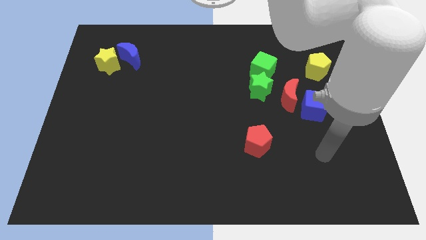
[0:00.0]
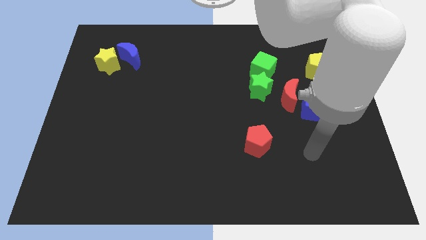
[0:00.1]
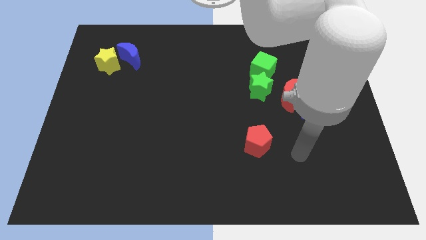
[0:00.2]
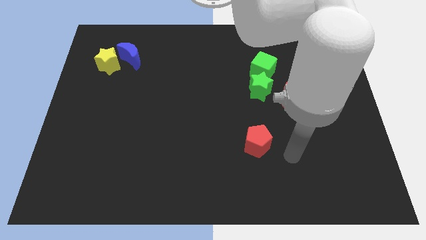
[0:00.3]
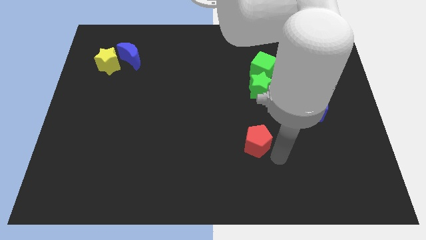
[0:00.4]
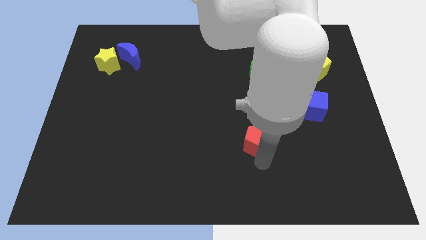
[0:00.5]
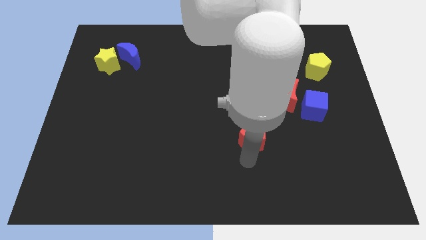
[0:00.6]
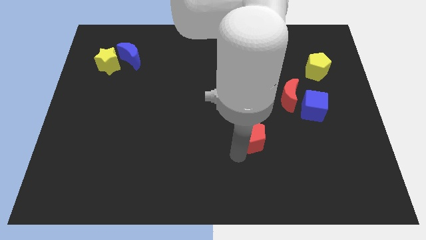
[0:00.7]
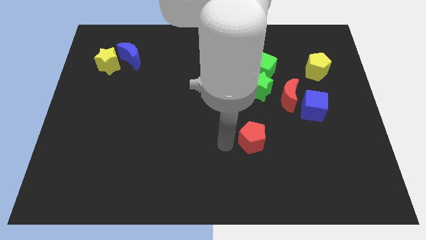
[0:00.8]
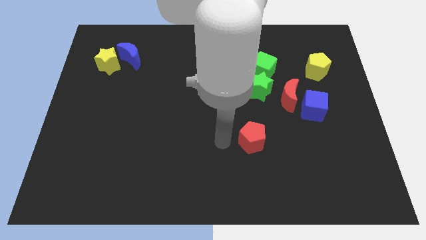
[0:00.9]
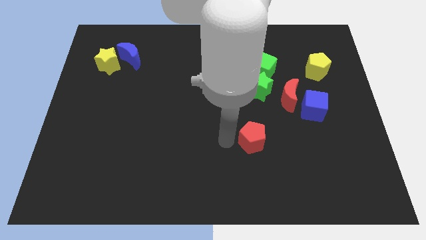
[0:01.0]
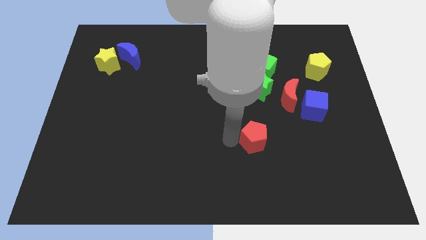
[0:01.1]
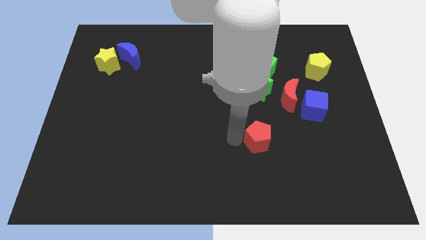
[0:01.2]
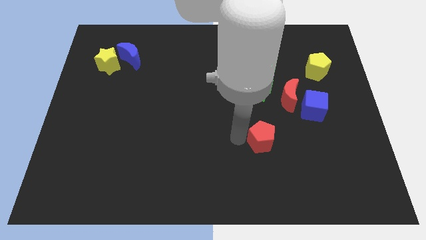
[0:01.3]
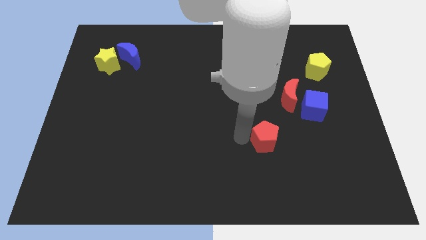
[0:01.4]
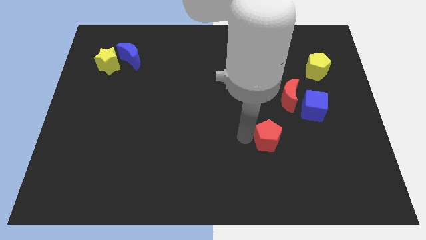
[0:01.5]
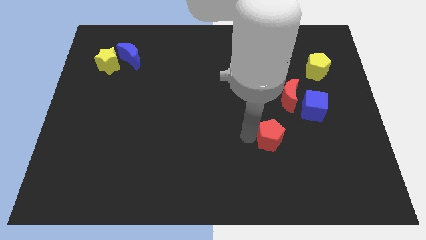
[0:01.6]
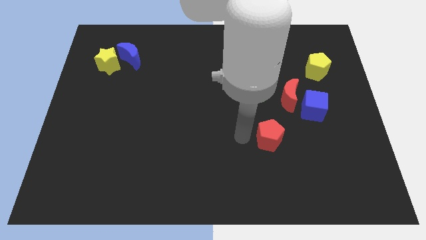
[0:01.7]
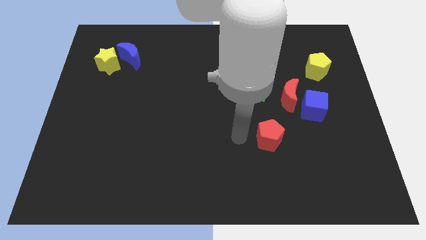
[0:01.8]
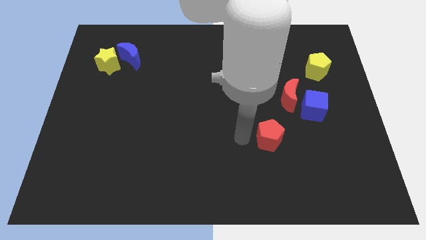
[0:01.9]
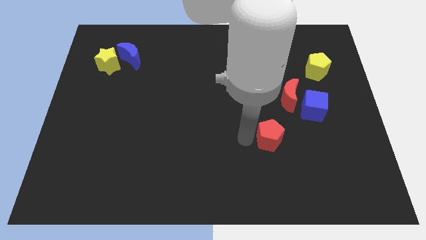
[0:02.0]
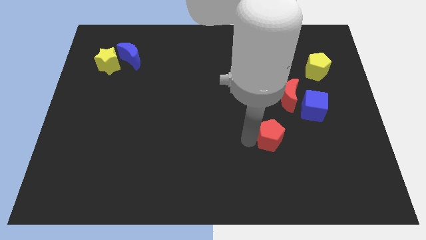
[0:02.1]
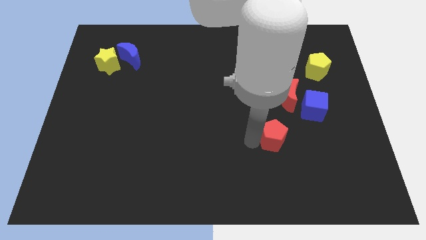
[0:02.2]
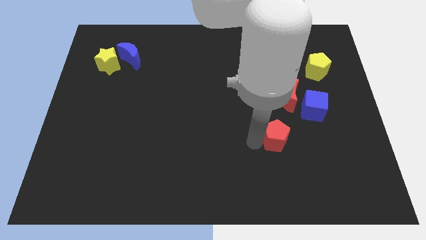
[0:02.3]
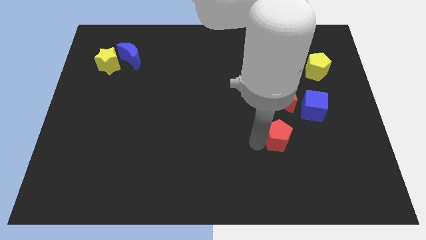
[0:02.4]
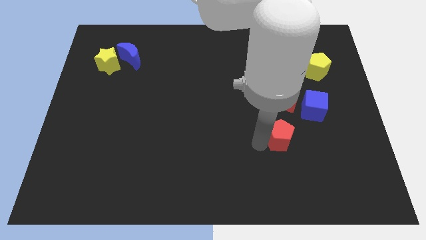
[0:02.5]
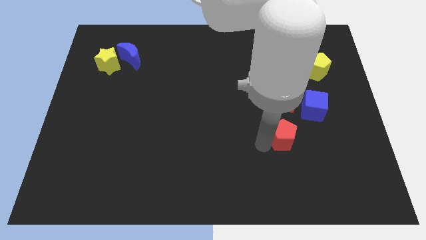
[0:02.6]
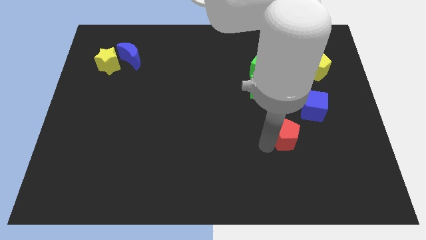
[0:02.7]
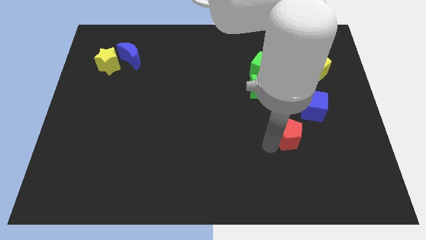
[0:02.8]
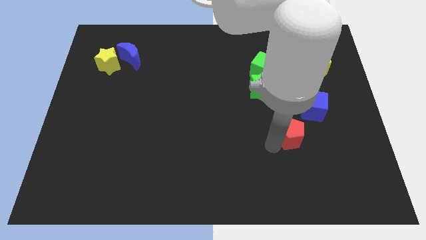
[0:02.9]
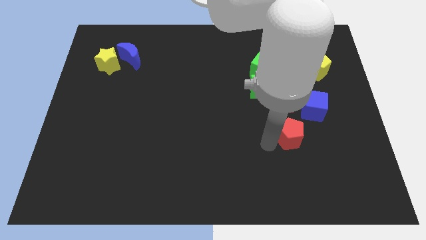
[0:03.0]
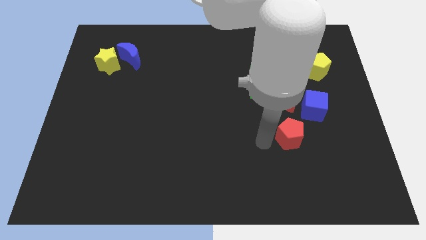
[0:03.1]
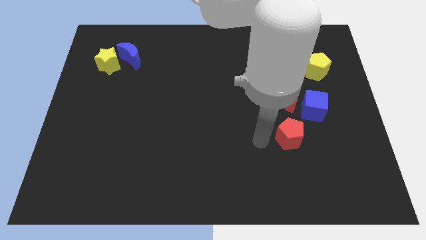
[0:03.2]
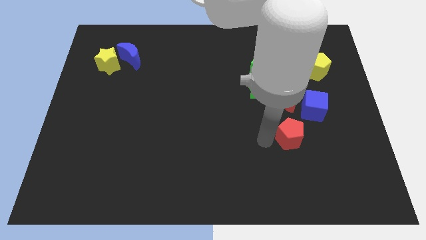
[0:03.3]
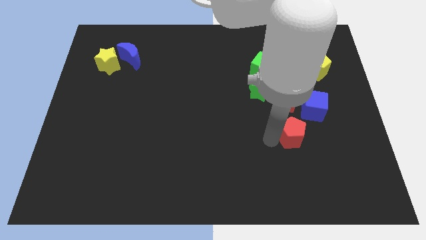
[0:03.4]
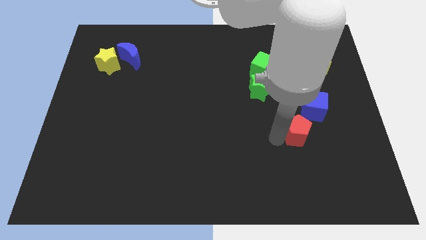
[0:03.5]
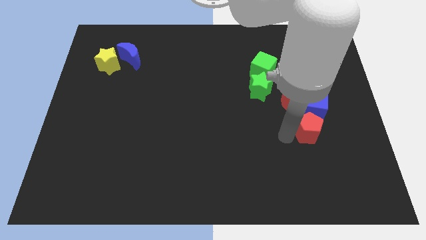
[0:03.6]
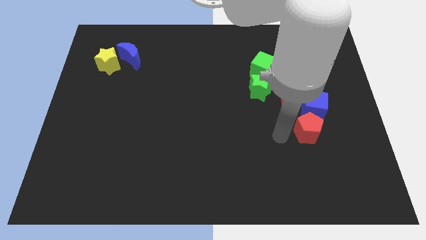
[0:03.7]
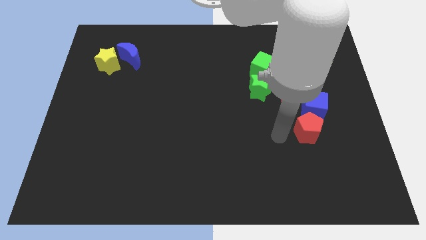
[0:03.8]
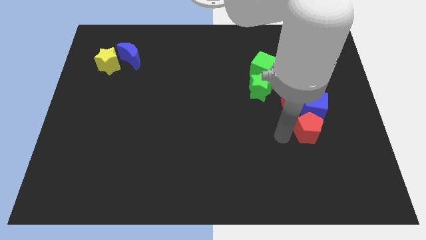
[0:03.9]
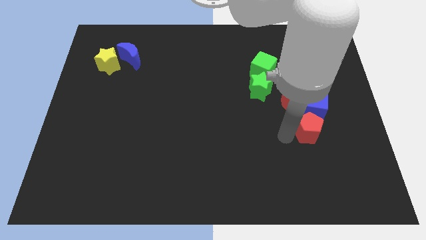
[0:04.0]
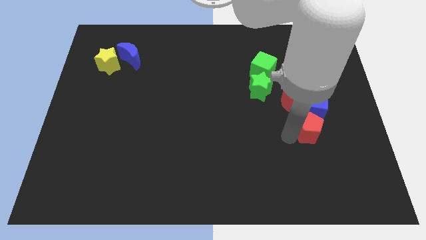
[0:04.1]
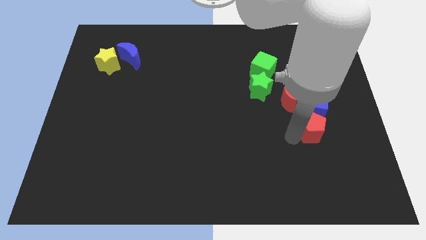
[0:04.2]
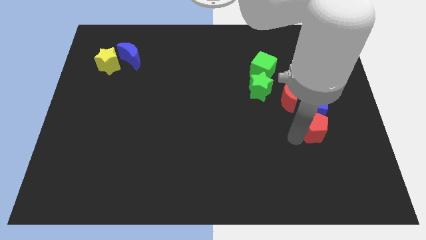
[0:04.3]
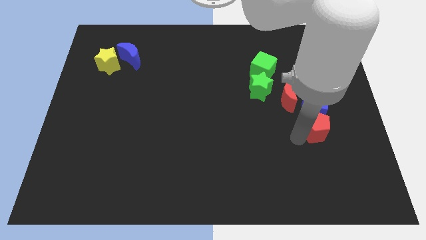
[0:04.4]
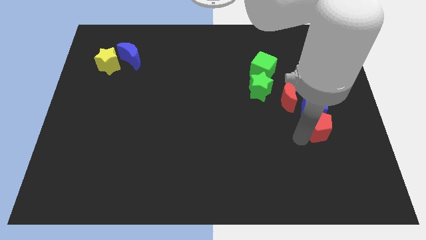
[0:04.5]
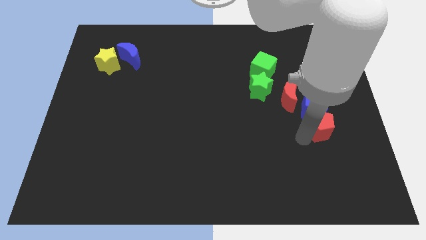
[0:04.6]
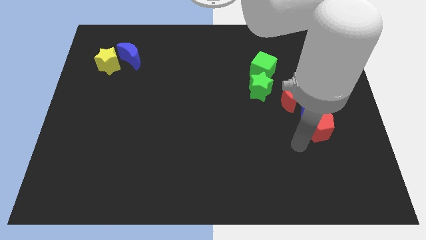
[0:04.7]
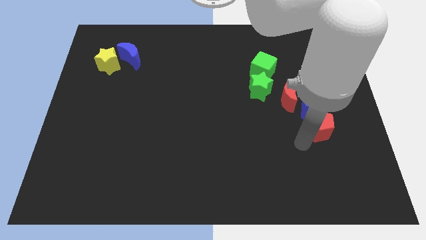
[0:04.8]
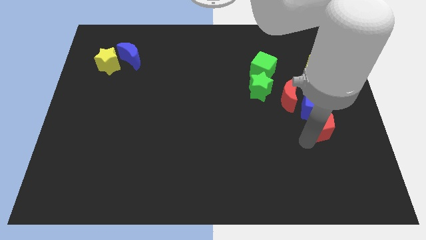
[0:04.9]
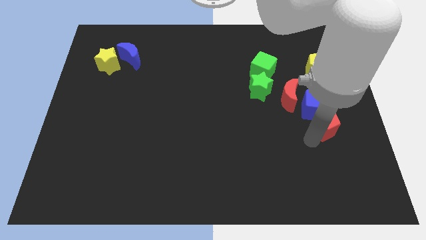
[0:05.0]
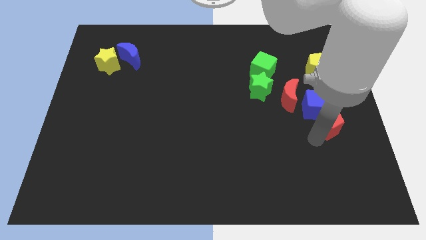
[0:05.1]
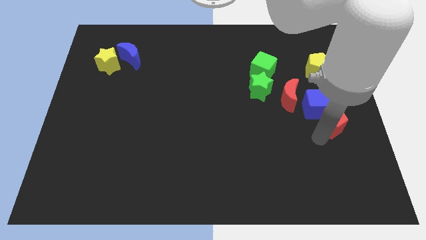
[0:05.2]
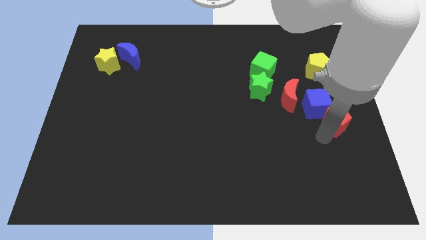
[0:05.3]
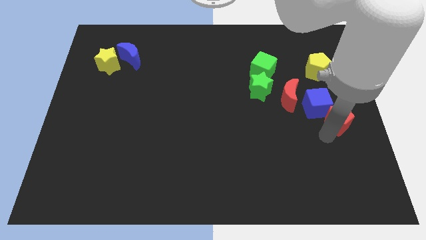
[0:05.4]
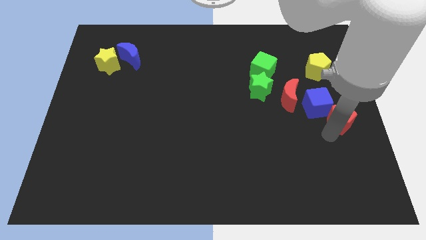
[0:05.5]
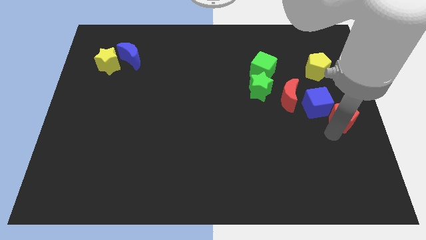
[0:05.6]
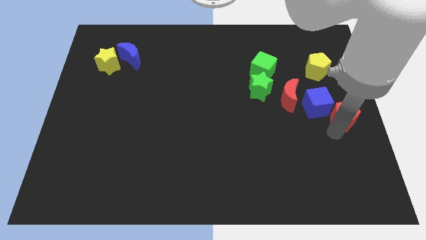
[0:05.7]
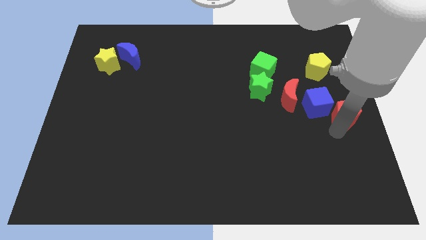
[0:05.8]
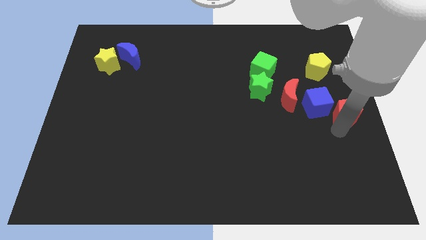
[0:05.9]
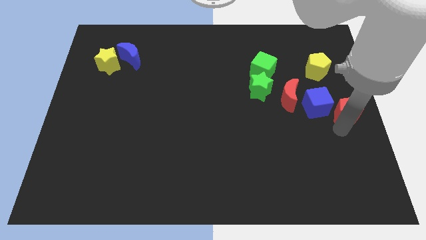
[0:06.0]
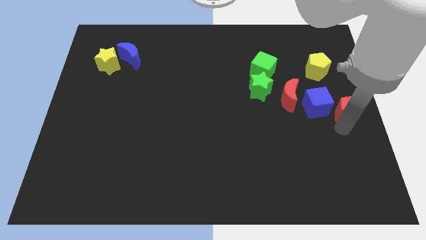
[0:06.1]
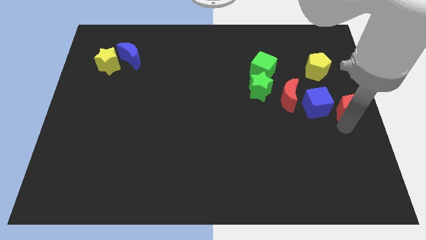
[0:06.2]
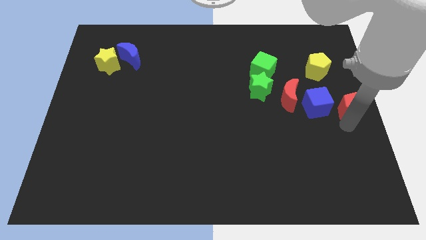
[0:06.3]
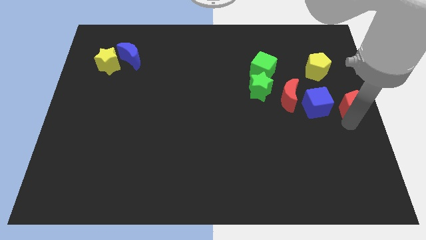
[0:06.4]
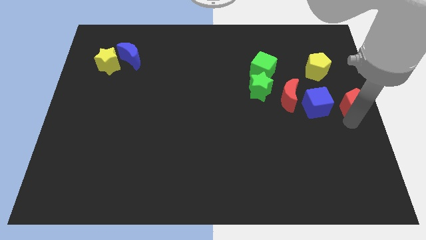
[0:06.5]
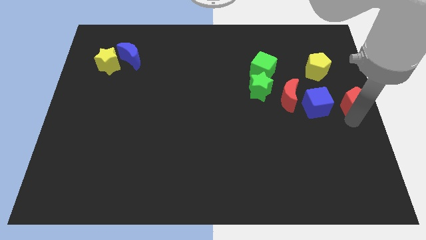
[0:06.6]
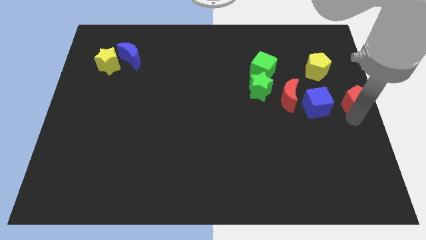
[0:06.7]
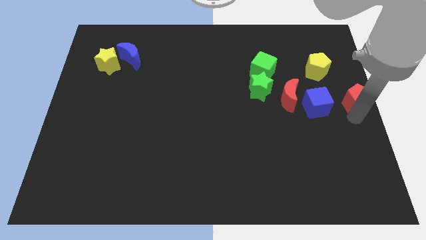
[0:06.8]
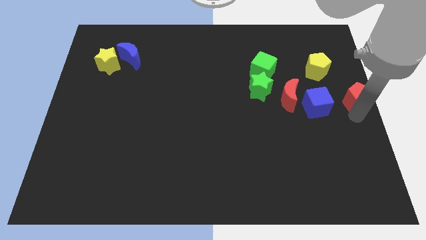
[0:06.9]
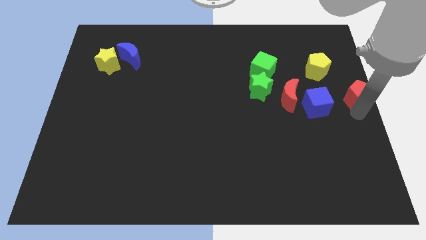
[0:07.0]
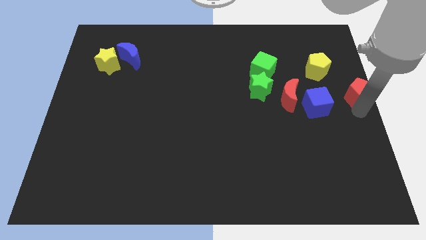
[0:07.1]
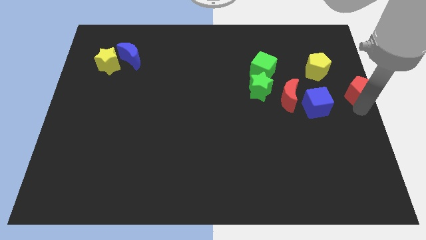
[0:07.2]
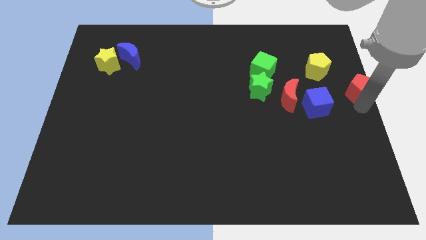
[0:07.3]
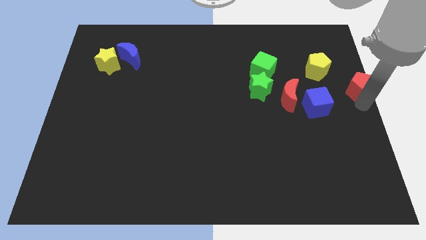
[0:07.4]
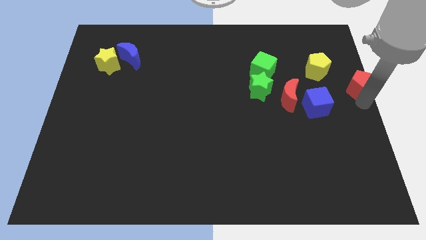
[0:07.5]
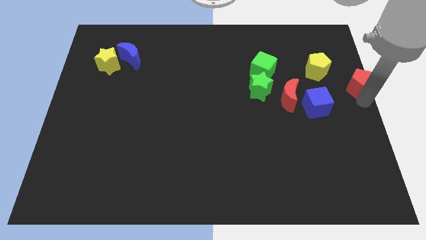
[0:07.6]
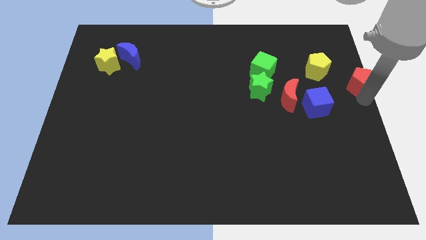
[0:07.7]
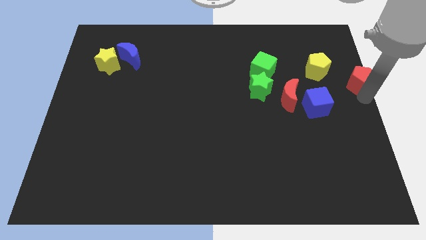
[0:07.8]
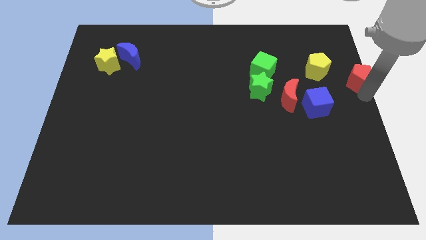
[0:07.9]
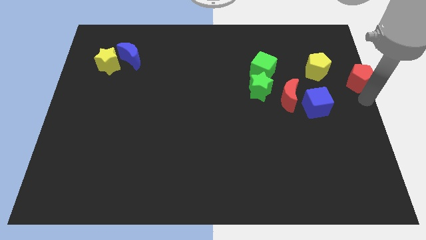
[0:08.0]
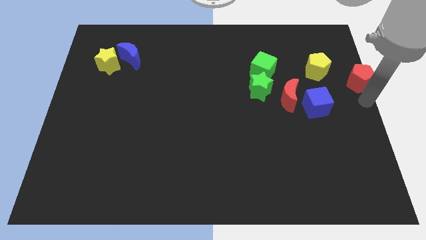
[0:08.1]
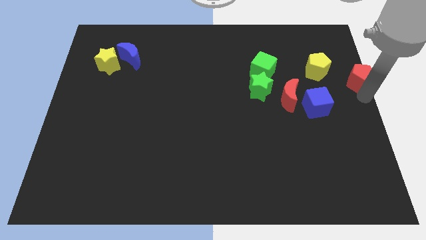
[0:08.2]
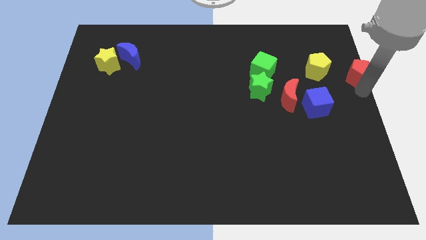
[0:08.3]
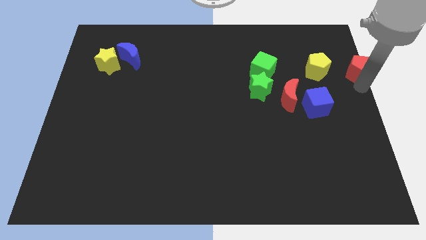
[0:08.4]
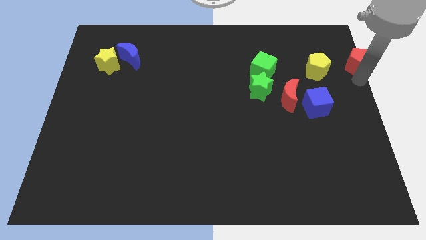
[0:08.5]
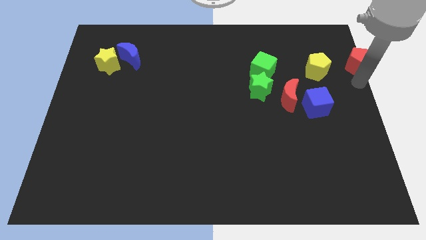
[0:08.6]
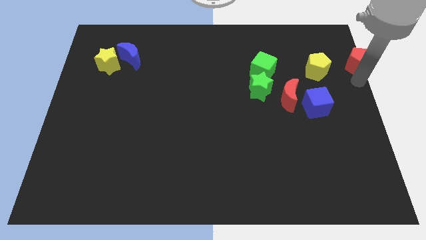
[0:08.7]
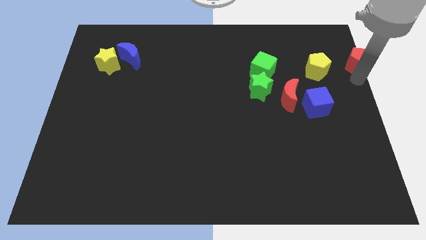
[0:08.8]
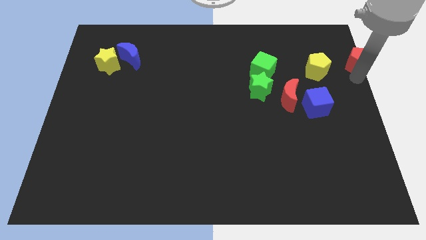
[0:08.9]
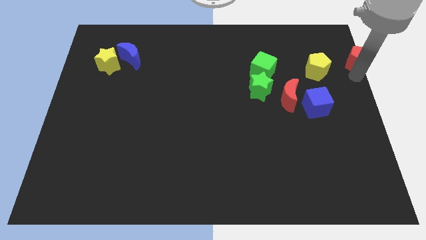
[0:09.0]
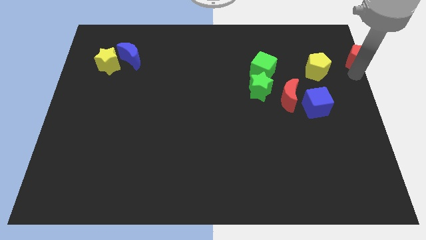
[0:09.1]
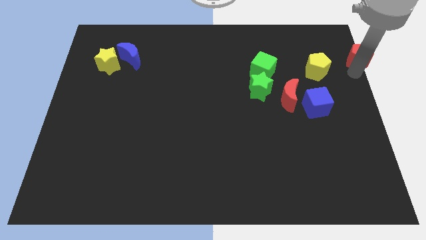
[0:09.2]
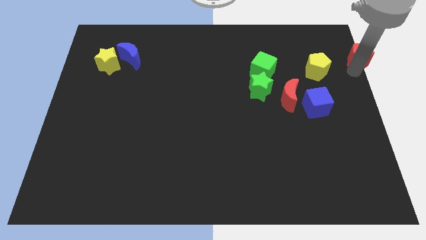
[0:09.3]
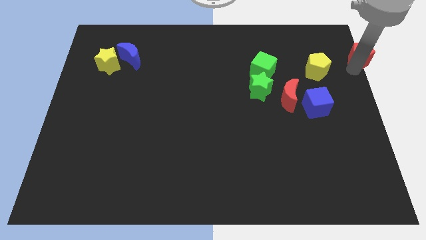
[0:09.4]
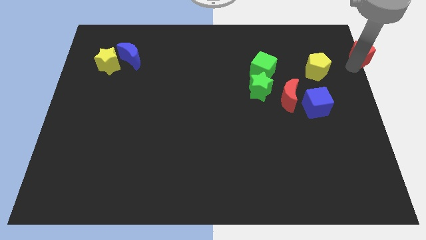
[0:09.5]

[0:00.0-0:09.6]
push the red pentagon to the top right
